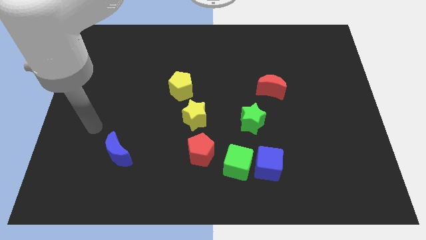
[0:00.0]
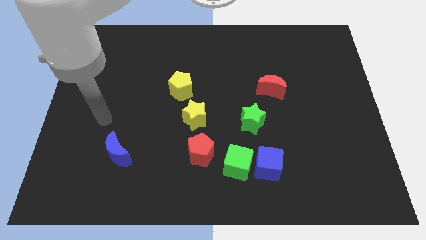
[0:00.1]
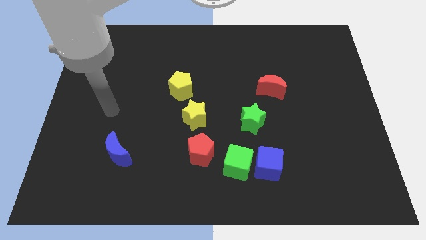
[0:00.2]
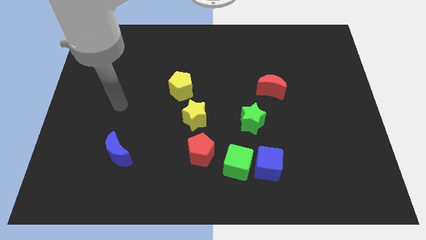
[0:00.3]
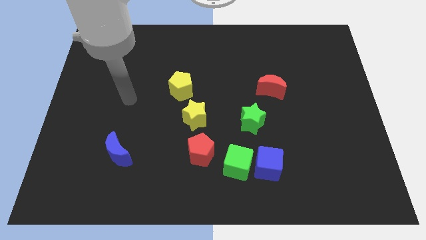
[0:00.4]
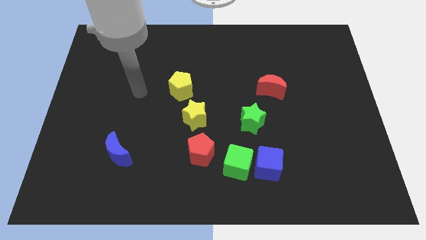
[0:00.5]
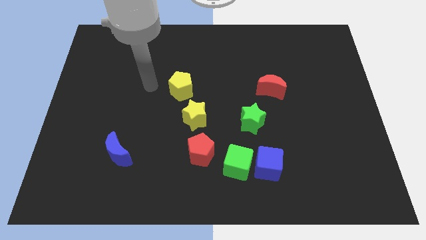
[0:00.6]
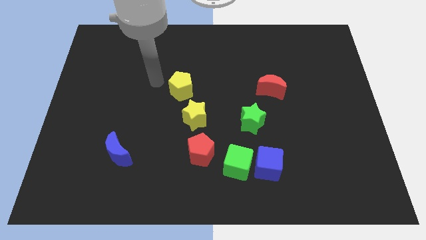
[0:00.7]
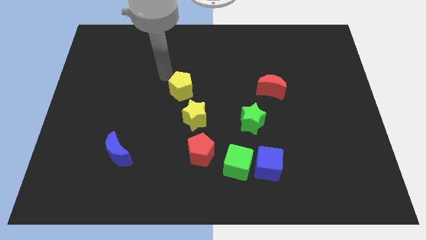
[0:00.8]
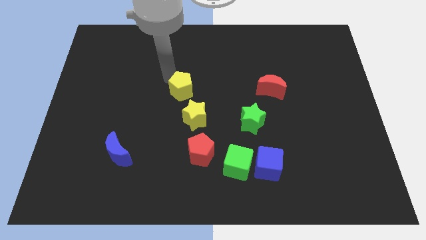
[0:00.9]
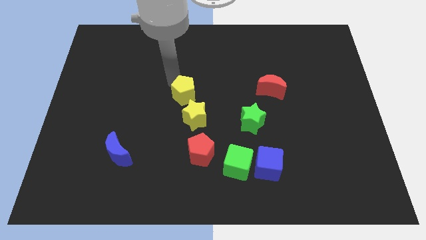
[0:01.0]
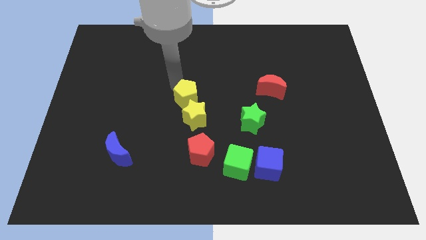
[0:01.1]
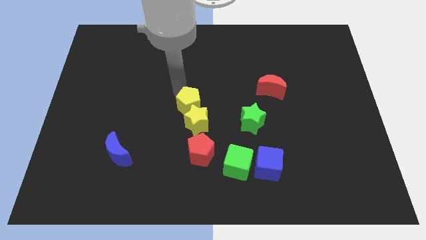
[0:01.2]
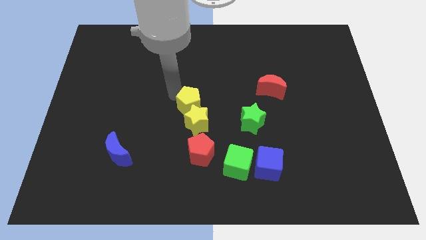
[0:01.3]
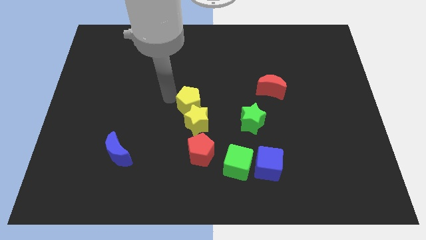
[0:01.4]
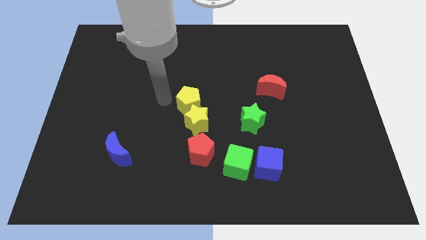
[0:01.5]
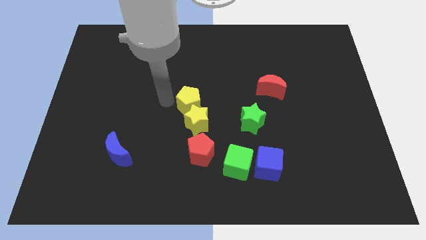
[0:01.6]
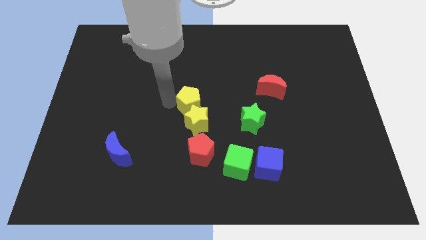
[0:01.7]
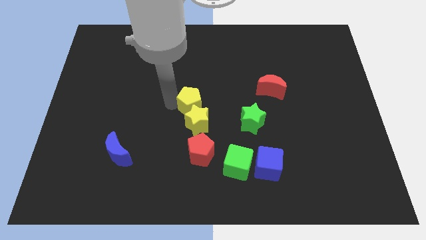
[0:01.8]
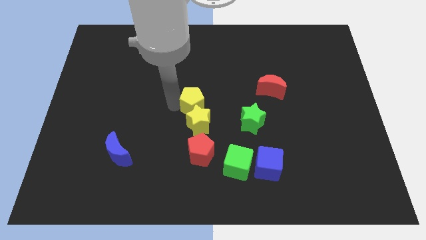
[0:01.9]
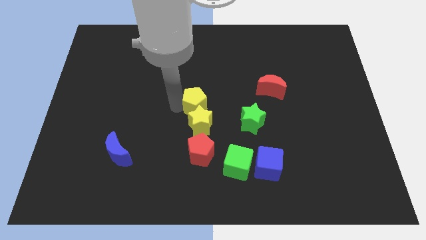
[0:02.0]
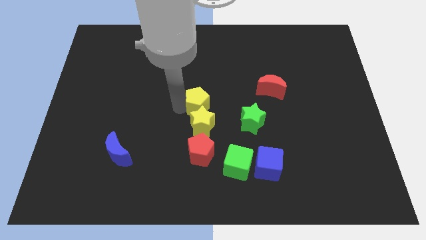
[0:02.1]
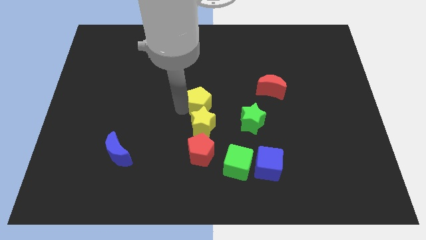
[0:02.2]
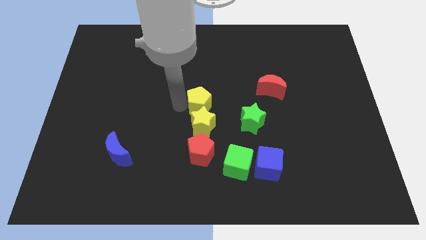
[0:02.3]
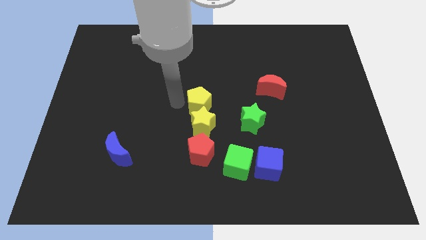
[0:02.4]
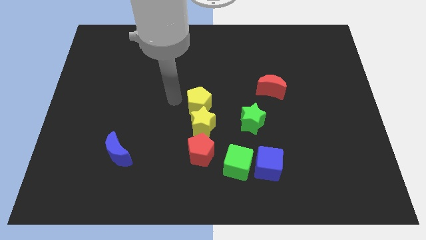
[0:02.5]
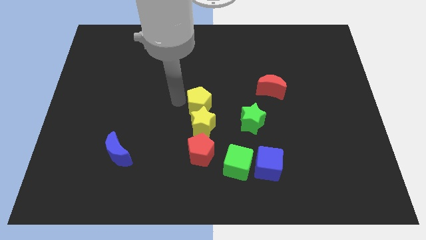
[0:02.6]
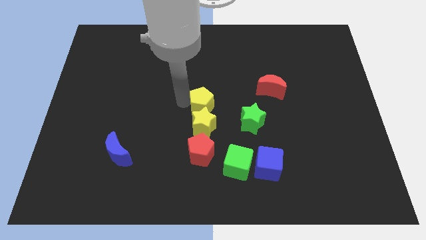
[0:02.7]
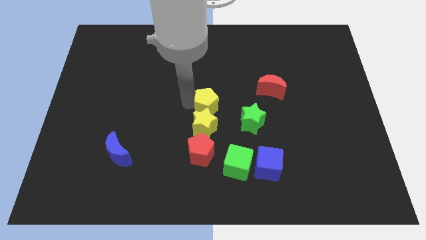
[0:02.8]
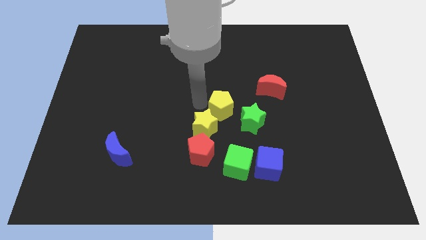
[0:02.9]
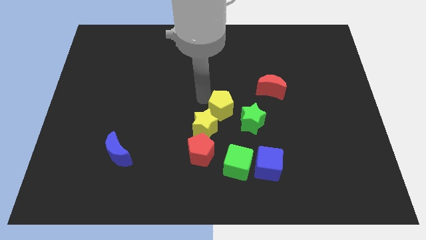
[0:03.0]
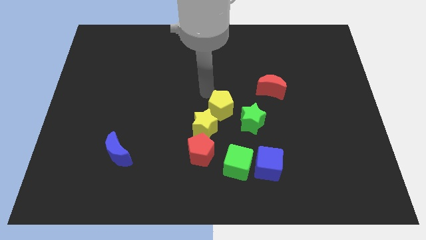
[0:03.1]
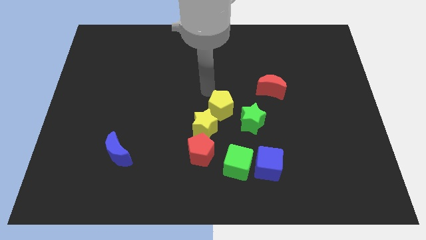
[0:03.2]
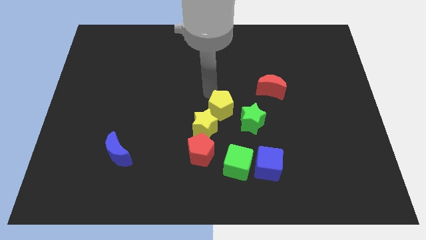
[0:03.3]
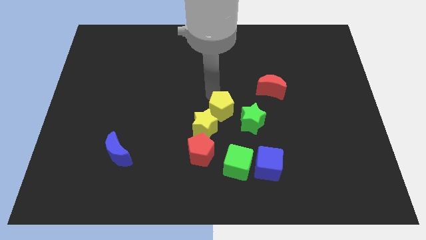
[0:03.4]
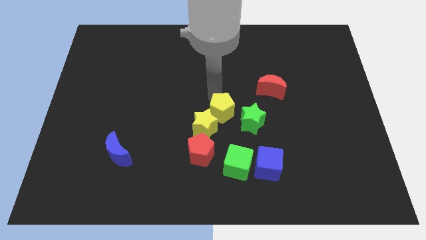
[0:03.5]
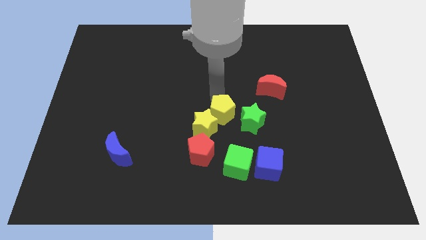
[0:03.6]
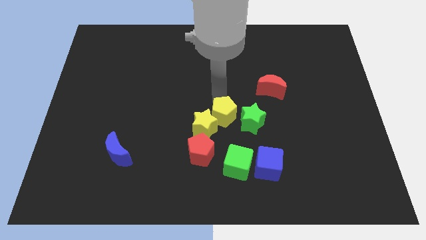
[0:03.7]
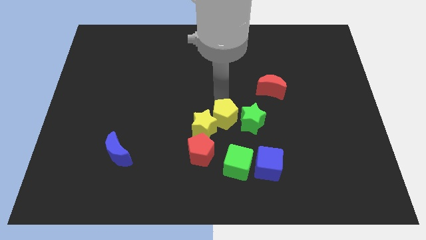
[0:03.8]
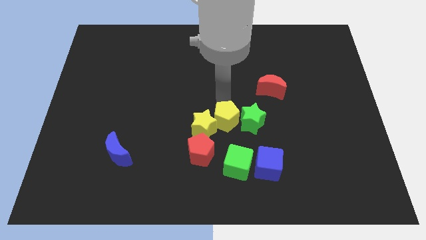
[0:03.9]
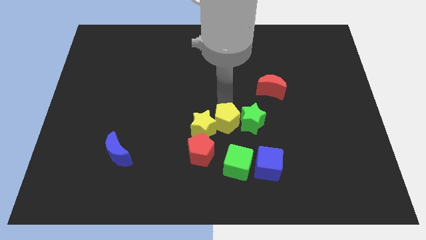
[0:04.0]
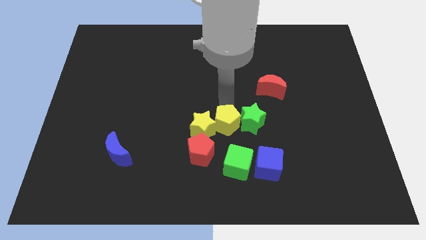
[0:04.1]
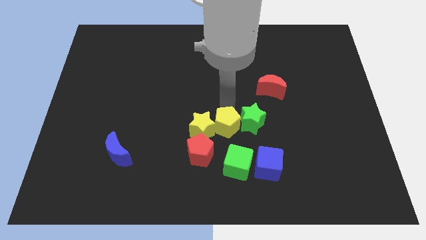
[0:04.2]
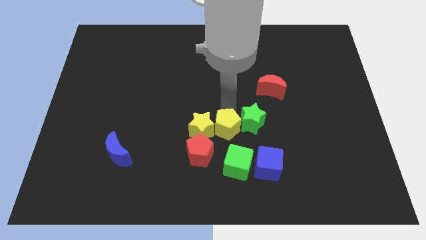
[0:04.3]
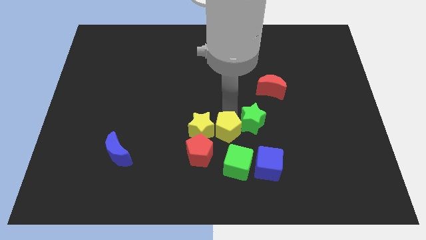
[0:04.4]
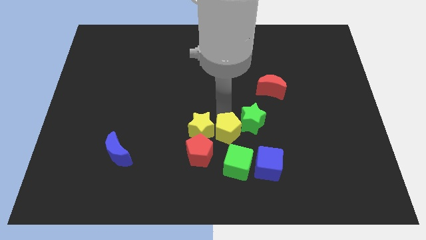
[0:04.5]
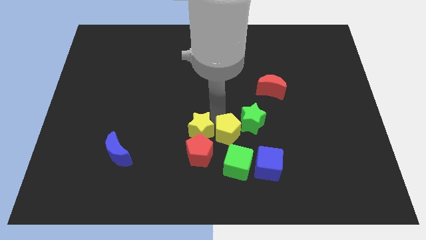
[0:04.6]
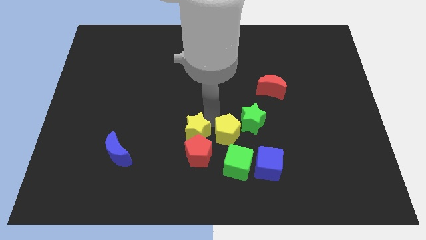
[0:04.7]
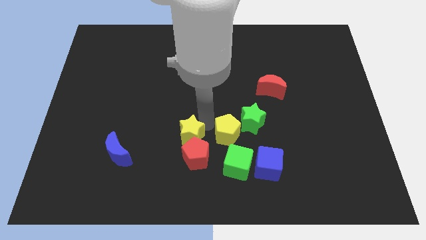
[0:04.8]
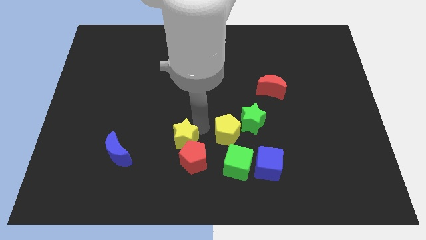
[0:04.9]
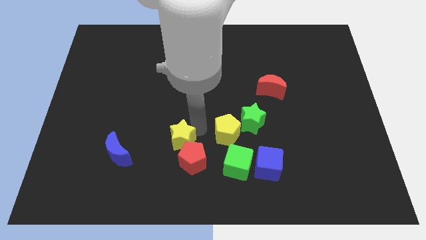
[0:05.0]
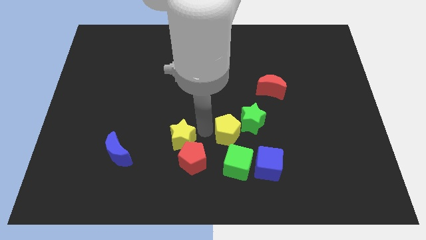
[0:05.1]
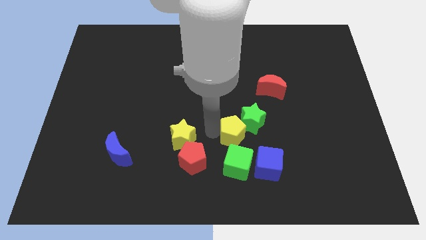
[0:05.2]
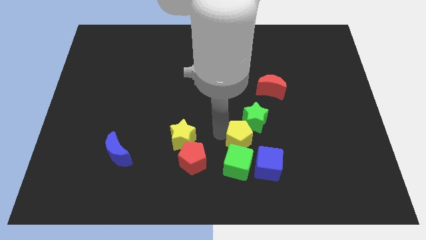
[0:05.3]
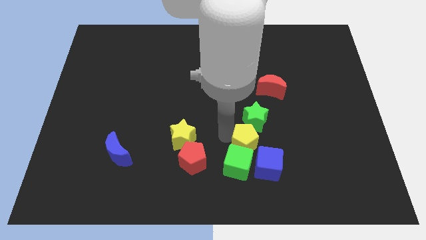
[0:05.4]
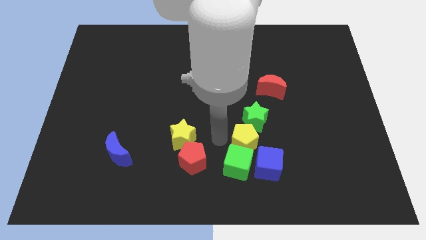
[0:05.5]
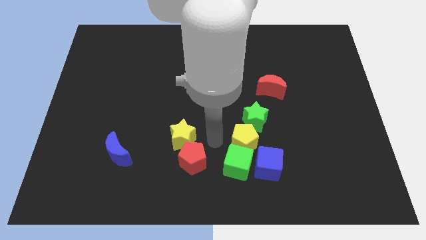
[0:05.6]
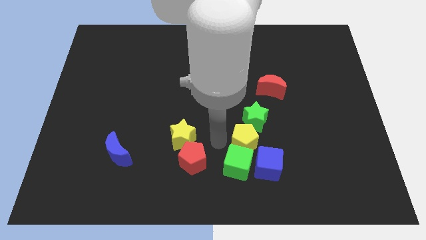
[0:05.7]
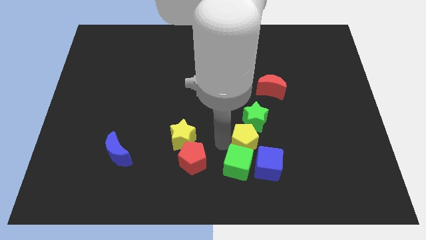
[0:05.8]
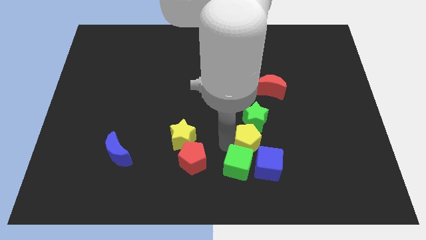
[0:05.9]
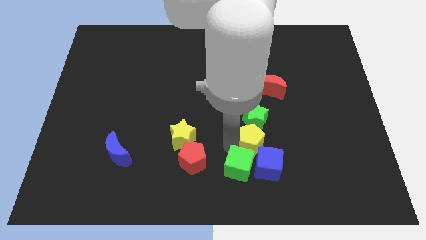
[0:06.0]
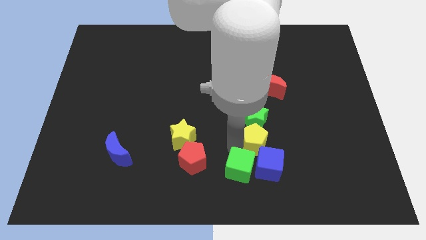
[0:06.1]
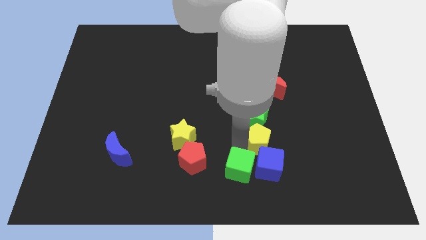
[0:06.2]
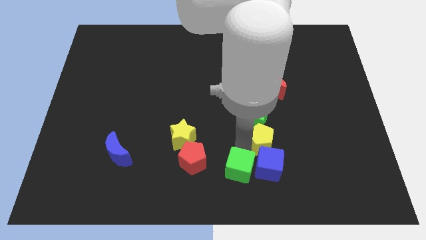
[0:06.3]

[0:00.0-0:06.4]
push the yellow pentagon to the top right of the blue cube

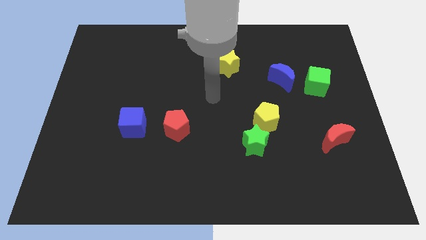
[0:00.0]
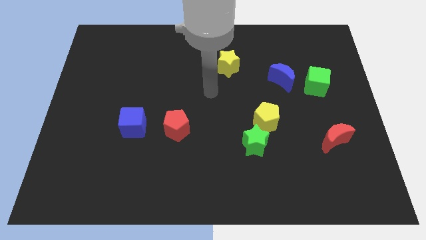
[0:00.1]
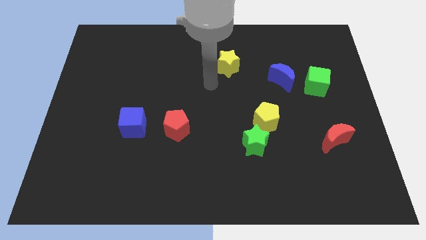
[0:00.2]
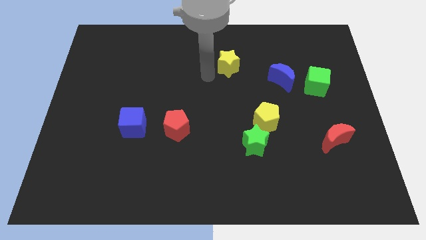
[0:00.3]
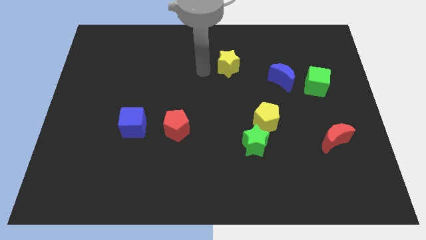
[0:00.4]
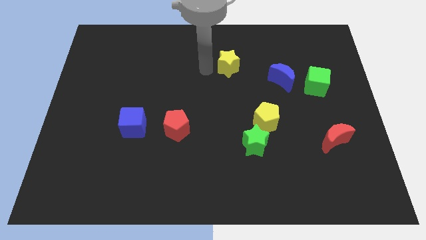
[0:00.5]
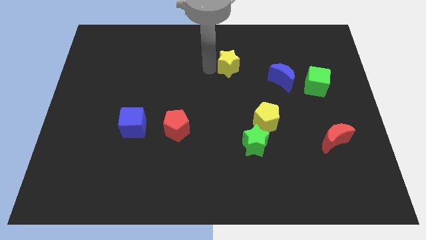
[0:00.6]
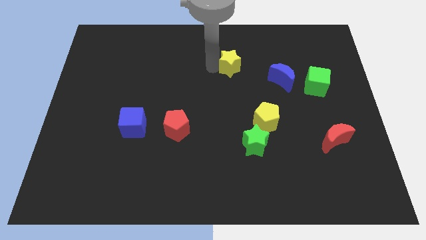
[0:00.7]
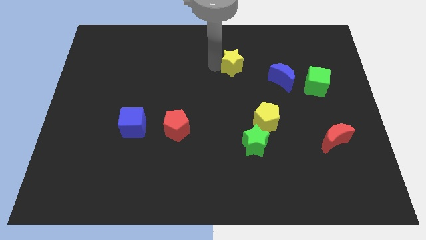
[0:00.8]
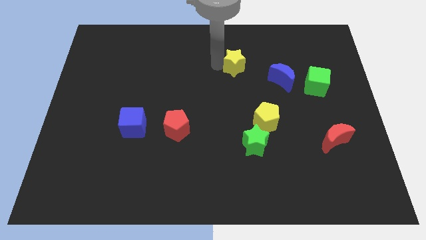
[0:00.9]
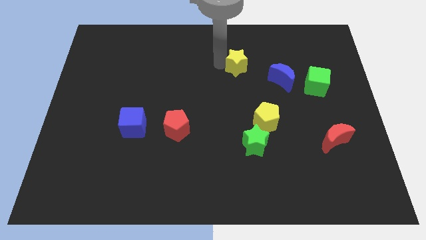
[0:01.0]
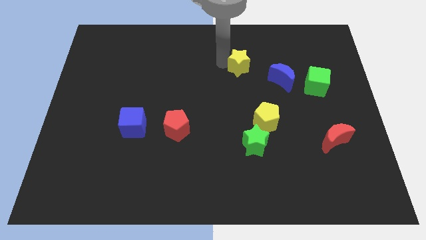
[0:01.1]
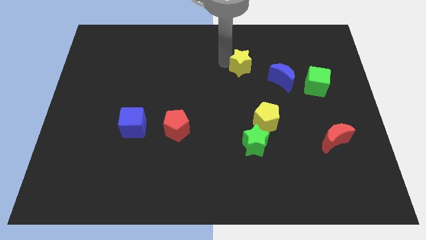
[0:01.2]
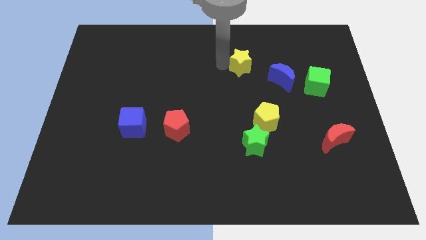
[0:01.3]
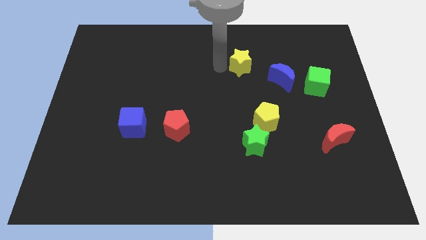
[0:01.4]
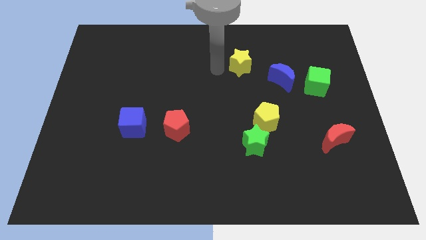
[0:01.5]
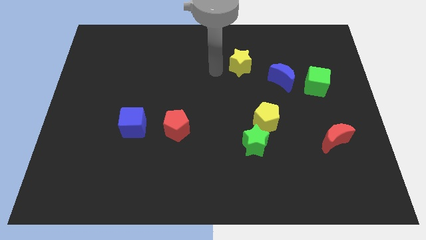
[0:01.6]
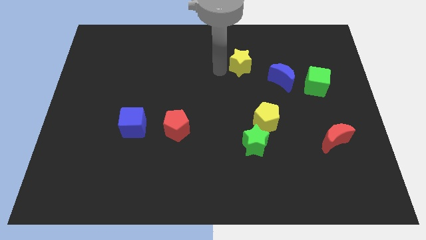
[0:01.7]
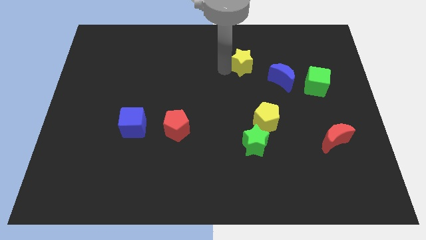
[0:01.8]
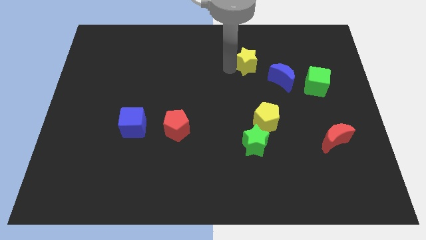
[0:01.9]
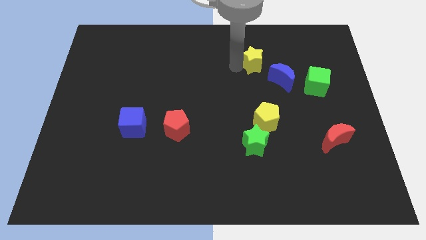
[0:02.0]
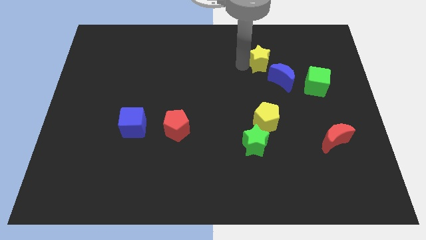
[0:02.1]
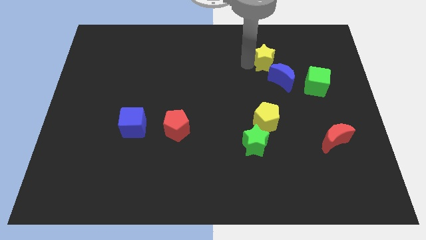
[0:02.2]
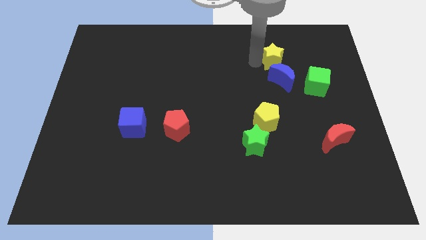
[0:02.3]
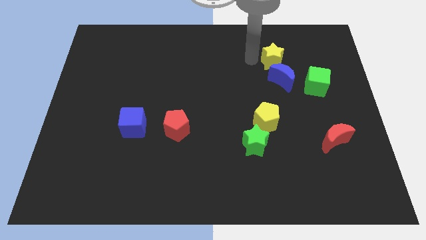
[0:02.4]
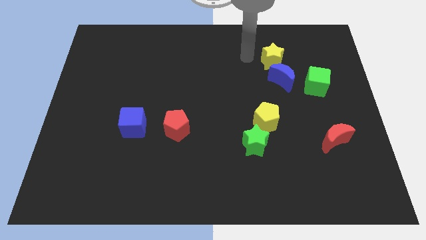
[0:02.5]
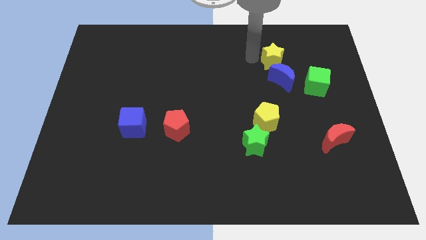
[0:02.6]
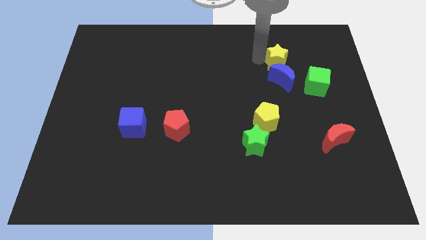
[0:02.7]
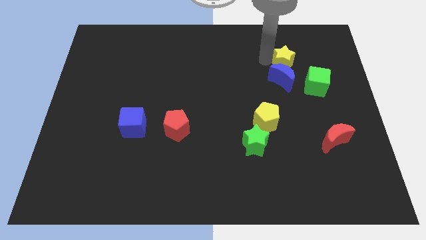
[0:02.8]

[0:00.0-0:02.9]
move the yellow star diagonally up and to the right of the blue moon
